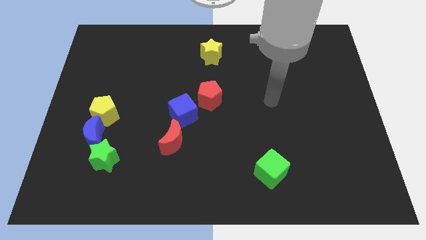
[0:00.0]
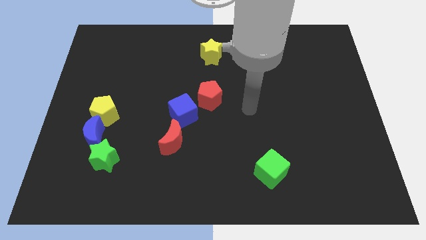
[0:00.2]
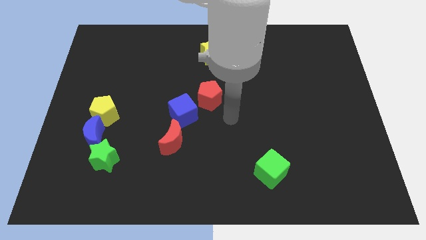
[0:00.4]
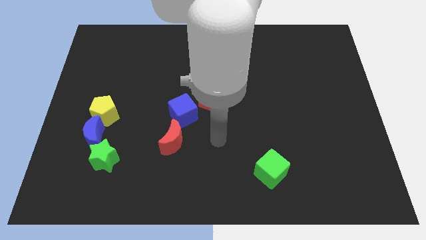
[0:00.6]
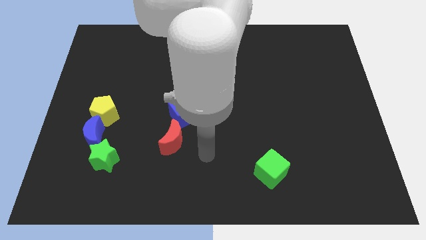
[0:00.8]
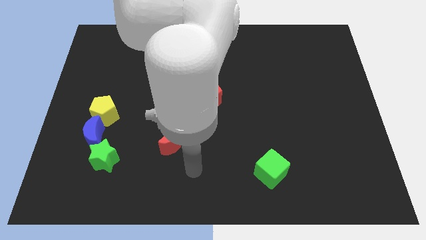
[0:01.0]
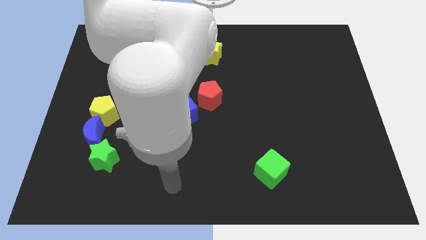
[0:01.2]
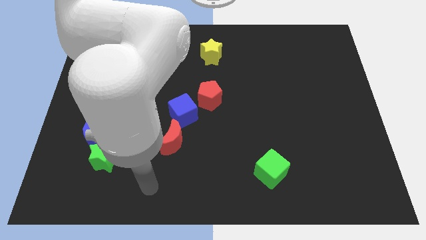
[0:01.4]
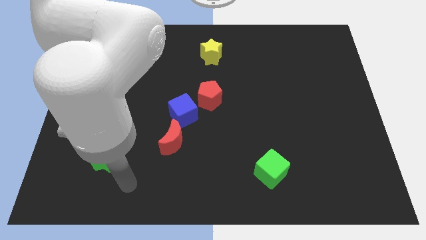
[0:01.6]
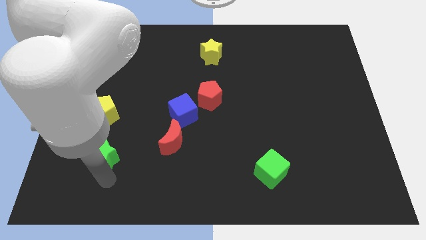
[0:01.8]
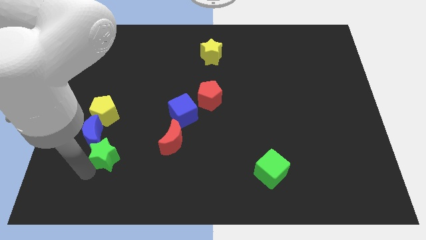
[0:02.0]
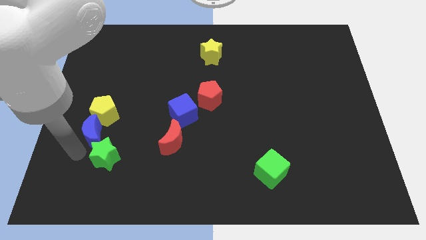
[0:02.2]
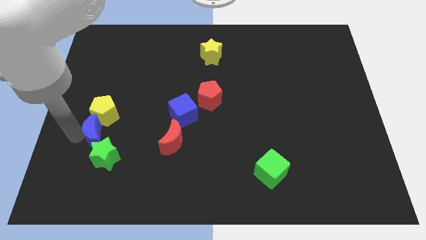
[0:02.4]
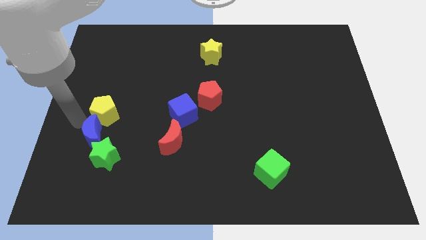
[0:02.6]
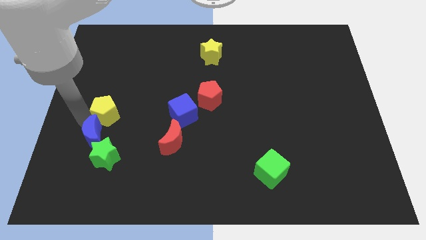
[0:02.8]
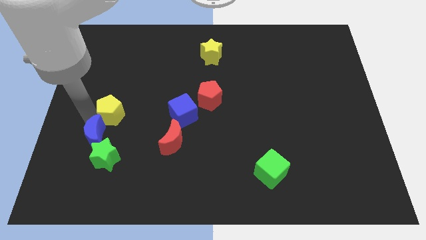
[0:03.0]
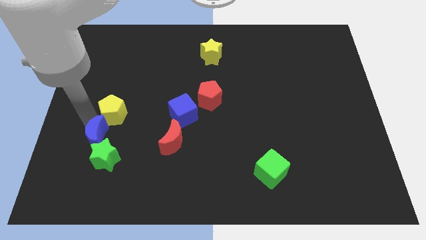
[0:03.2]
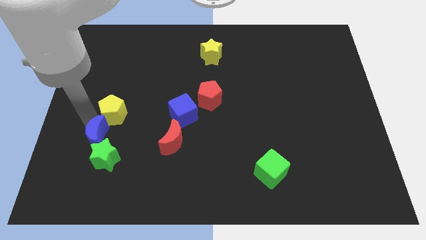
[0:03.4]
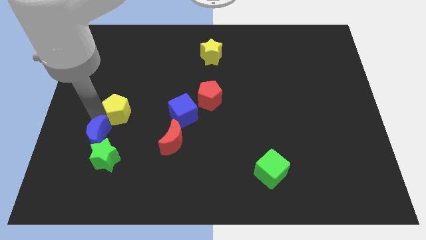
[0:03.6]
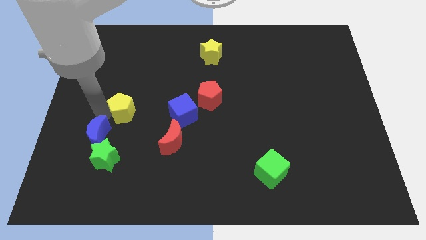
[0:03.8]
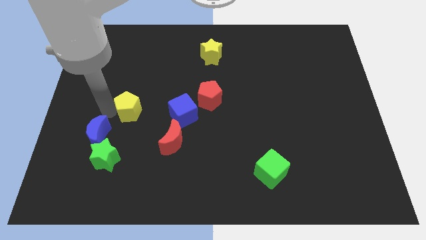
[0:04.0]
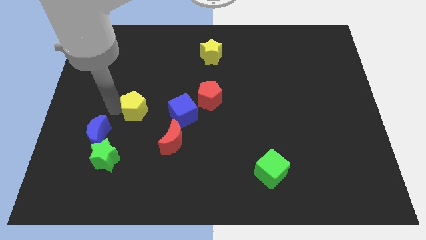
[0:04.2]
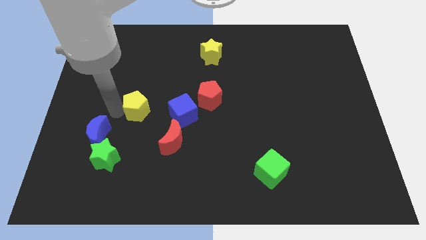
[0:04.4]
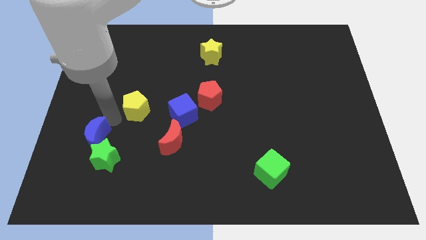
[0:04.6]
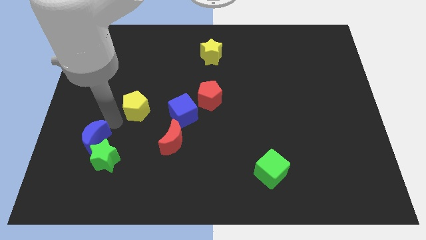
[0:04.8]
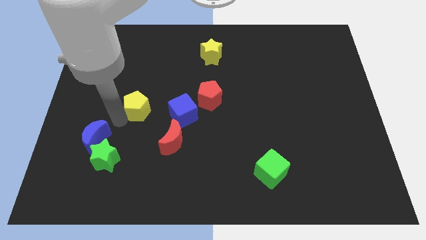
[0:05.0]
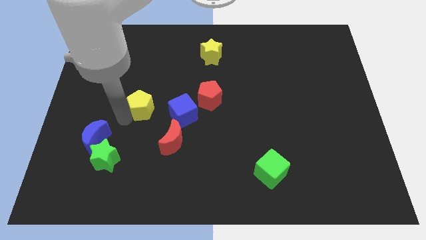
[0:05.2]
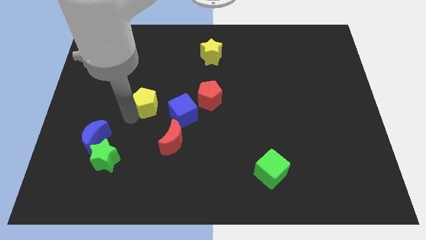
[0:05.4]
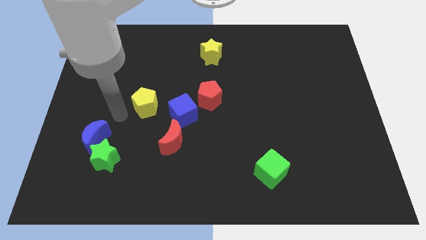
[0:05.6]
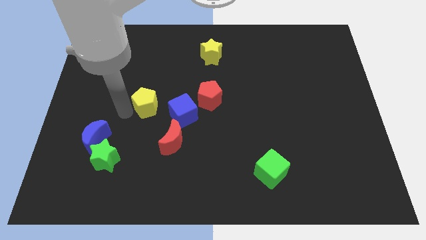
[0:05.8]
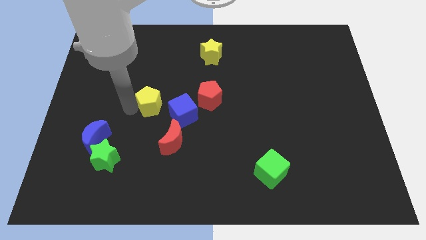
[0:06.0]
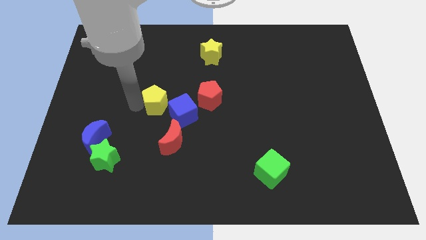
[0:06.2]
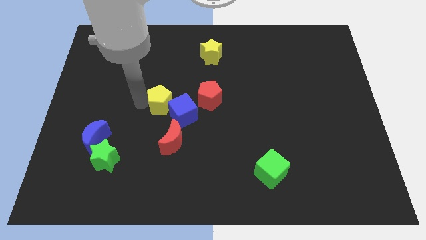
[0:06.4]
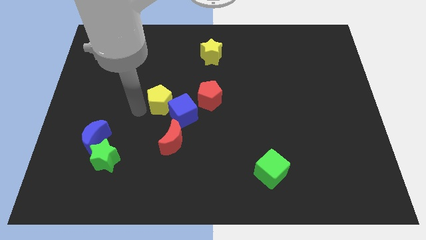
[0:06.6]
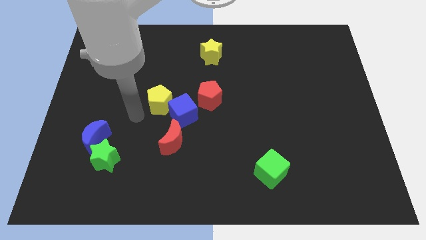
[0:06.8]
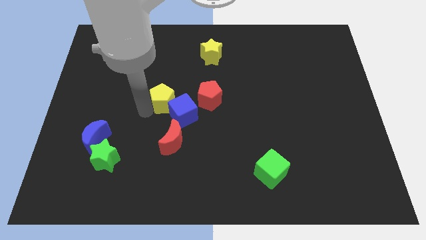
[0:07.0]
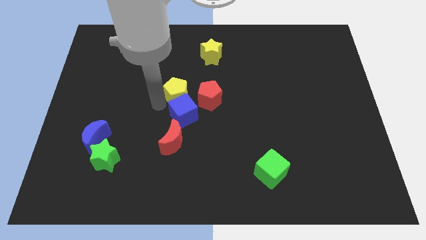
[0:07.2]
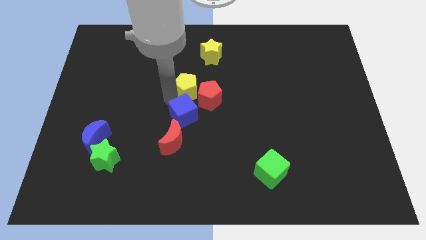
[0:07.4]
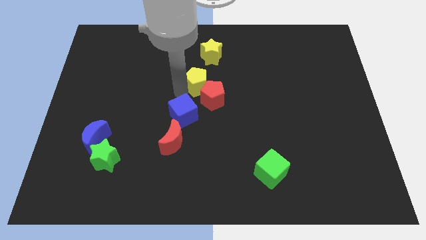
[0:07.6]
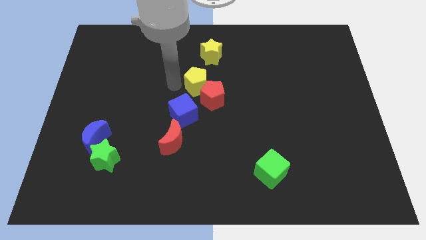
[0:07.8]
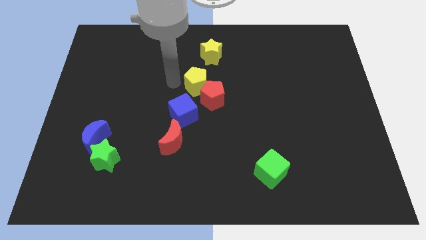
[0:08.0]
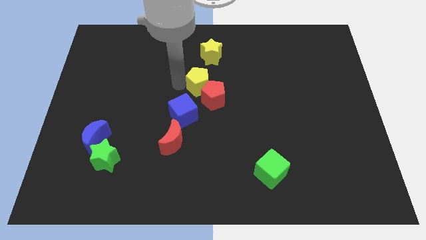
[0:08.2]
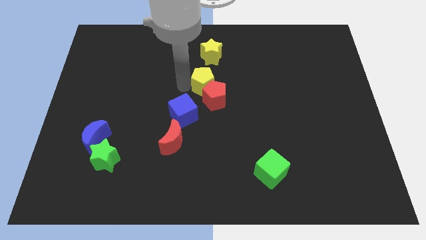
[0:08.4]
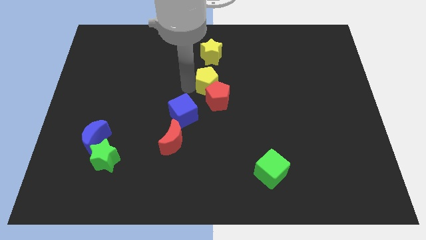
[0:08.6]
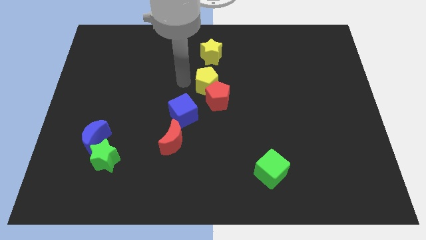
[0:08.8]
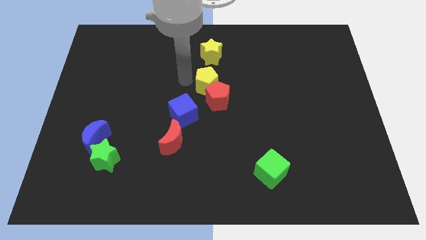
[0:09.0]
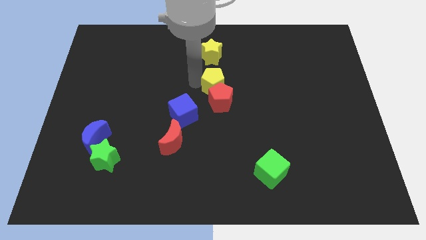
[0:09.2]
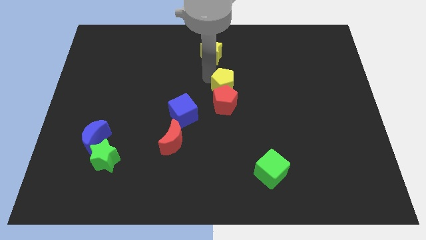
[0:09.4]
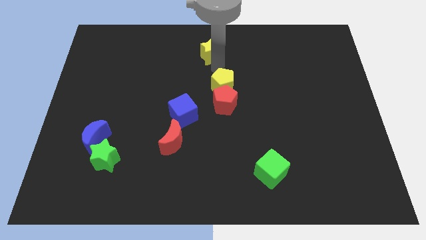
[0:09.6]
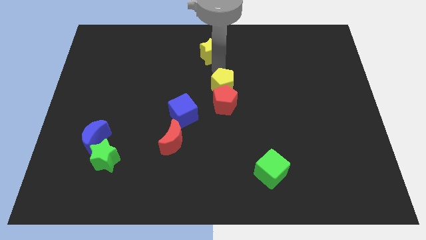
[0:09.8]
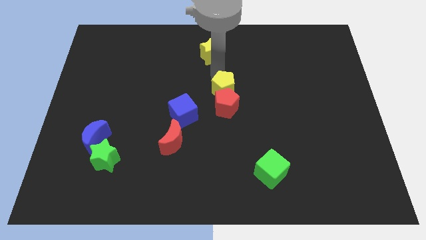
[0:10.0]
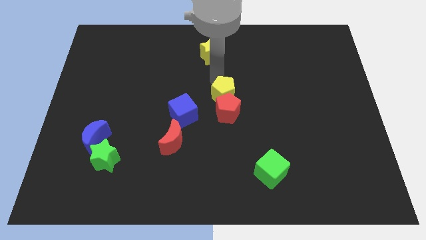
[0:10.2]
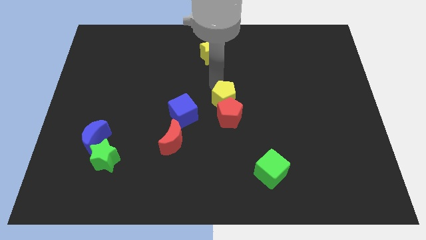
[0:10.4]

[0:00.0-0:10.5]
slide the yellow pentagon just right of the blue cube

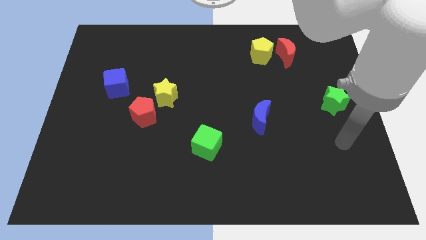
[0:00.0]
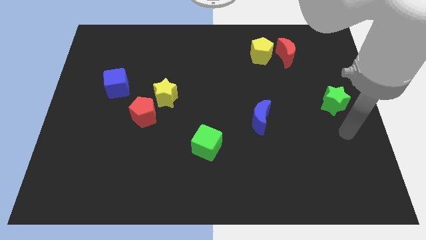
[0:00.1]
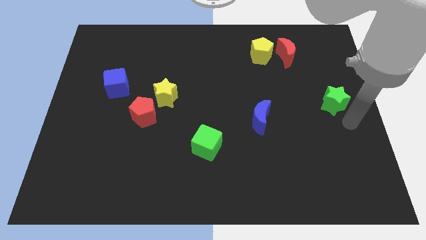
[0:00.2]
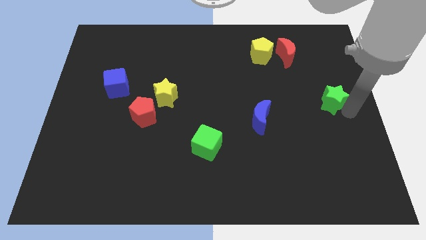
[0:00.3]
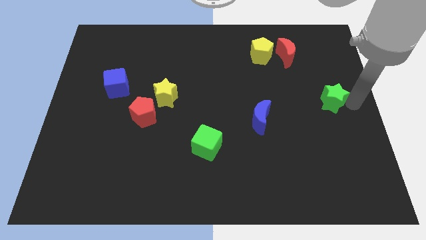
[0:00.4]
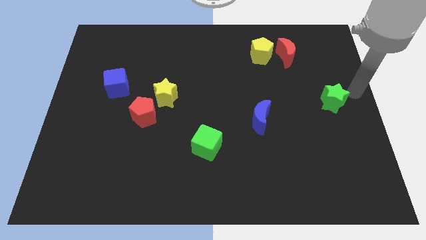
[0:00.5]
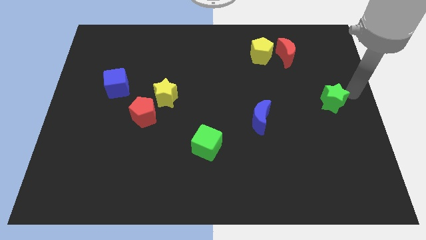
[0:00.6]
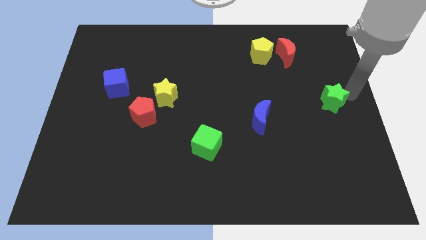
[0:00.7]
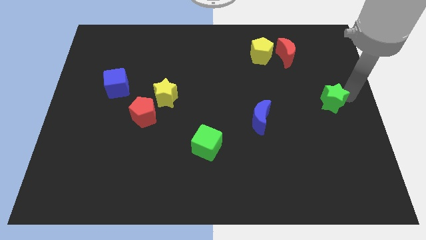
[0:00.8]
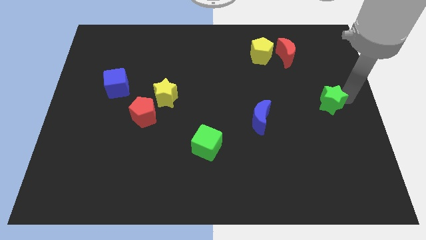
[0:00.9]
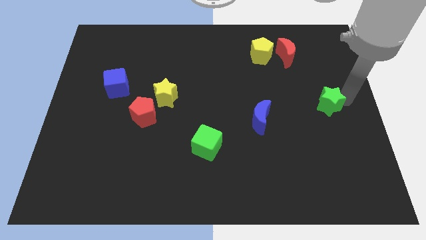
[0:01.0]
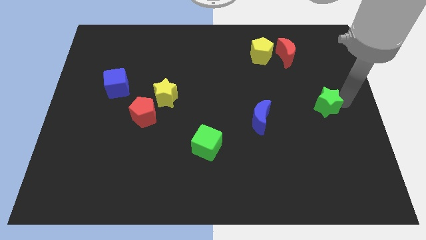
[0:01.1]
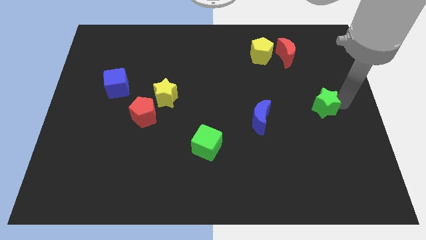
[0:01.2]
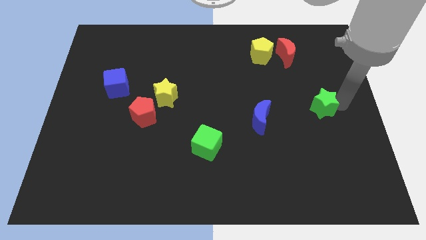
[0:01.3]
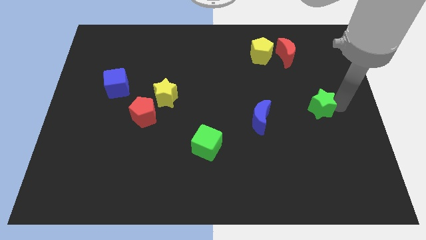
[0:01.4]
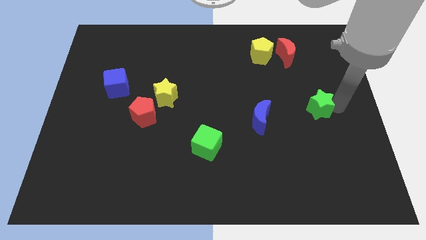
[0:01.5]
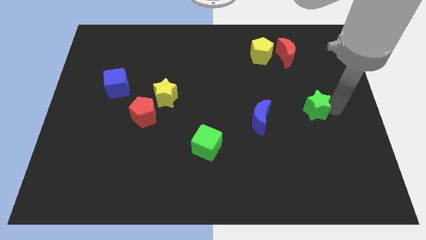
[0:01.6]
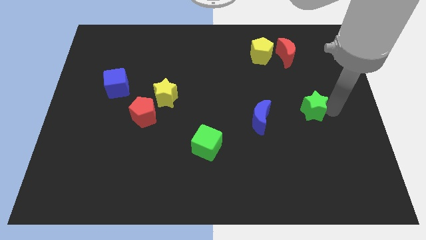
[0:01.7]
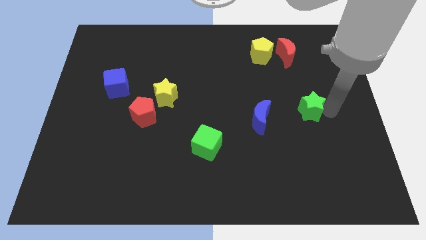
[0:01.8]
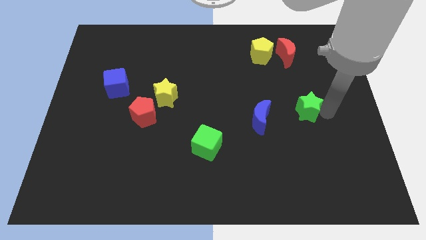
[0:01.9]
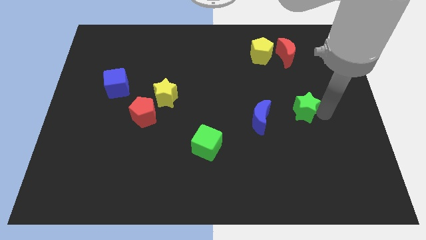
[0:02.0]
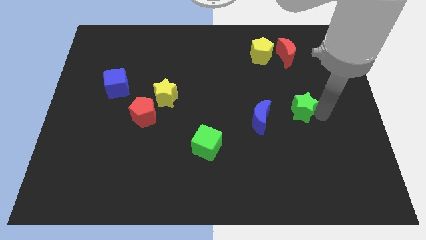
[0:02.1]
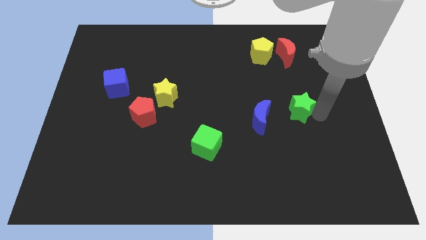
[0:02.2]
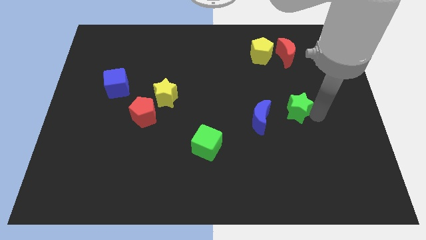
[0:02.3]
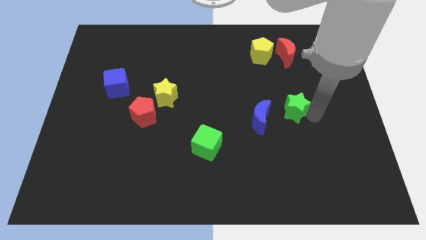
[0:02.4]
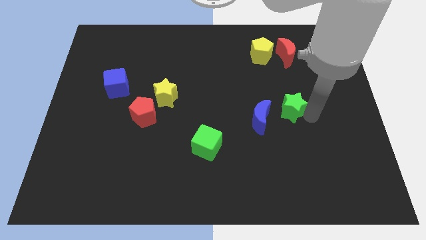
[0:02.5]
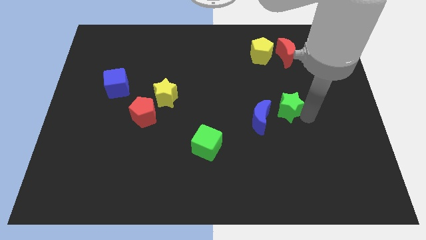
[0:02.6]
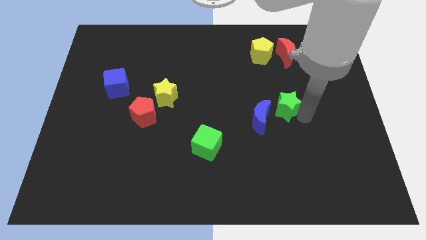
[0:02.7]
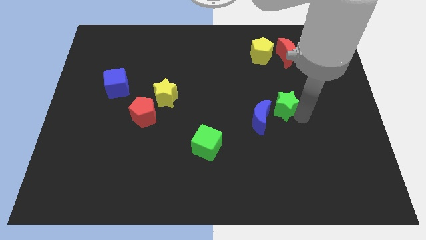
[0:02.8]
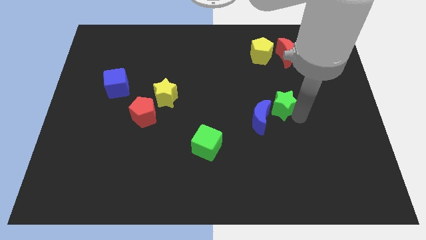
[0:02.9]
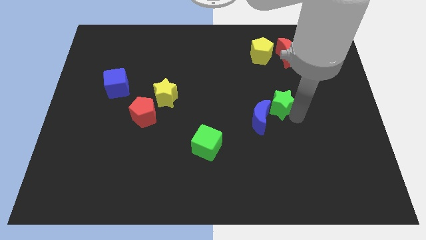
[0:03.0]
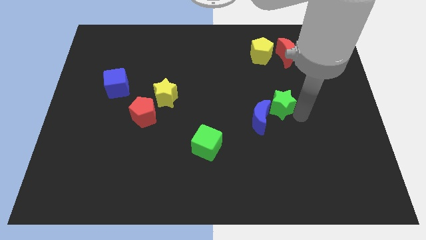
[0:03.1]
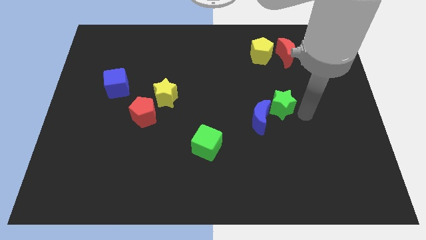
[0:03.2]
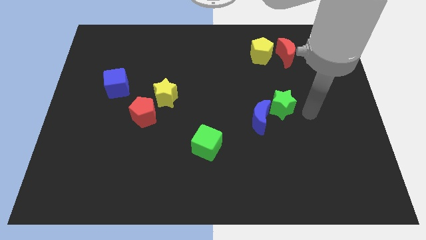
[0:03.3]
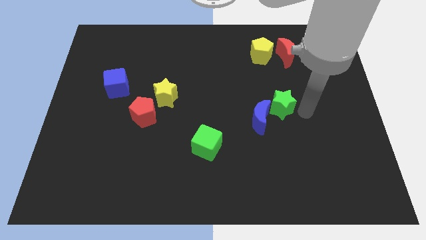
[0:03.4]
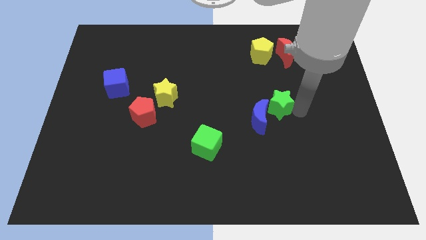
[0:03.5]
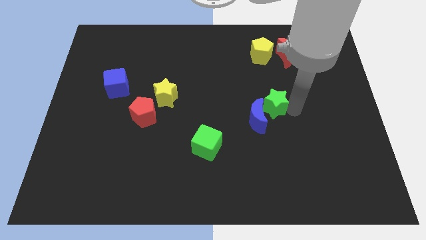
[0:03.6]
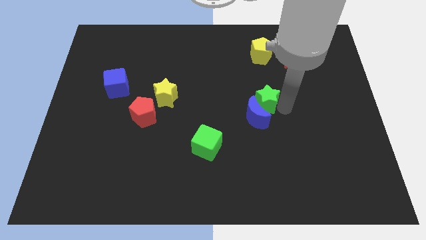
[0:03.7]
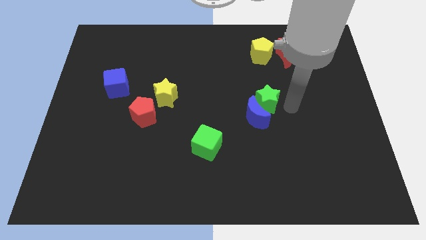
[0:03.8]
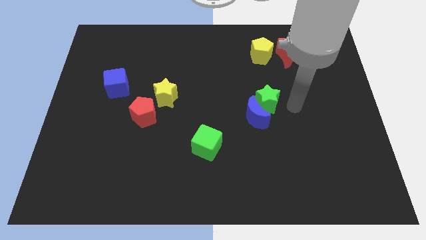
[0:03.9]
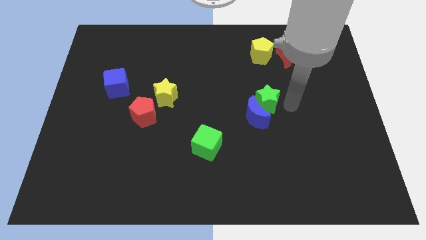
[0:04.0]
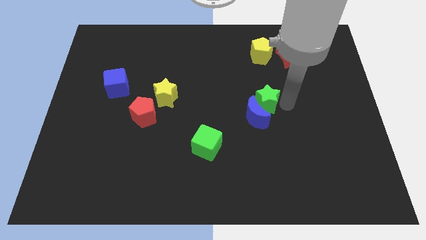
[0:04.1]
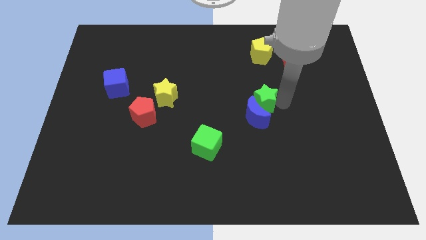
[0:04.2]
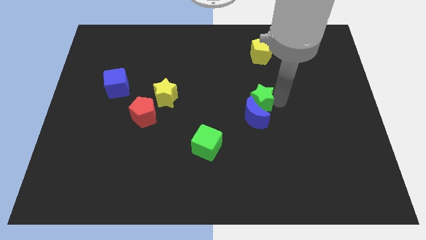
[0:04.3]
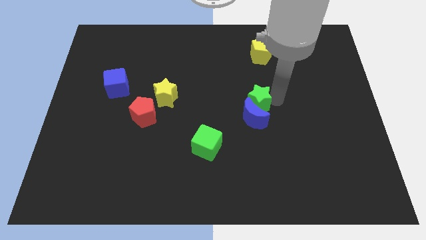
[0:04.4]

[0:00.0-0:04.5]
move the green star to the top left of the blue moon
